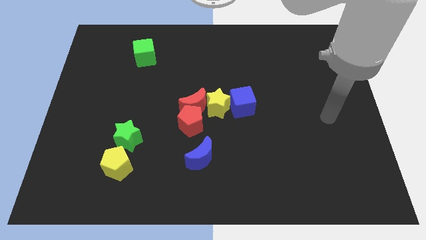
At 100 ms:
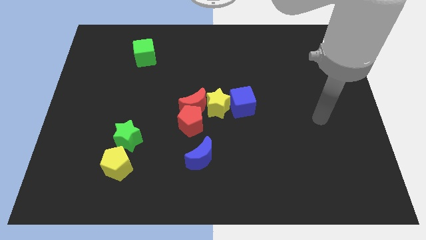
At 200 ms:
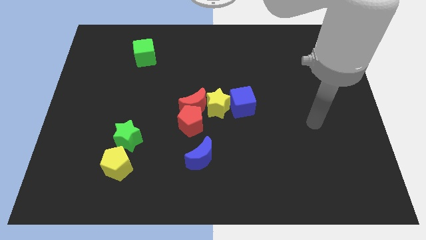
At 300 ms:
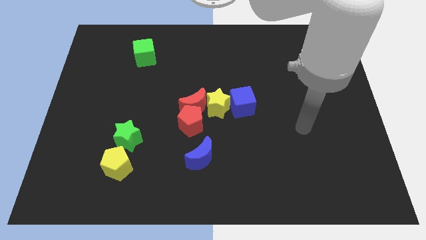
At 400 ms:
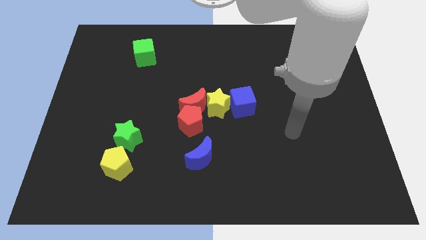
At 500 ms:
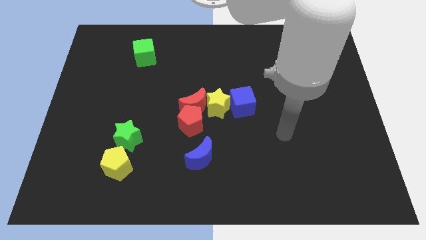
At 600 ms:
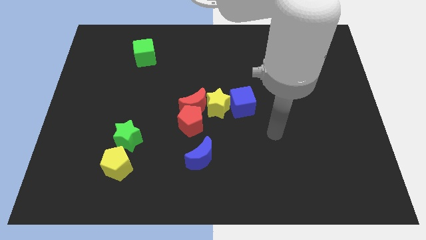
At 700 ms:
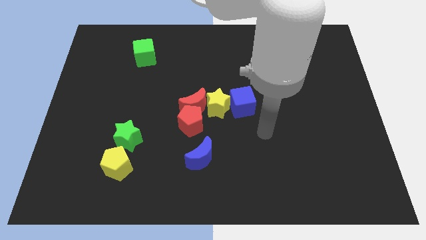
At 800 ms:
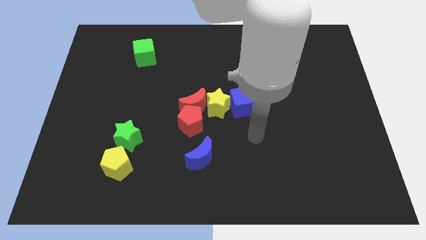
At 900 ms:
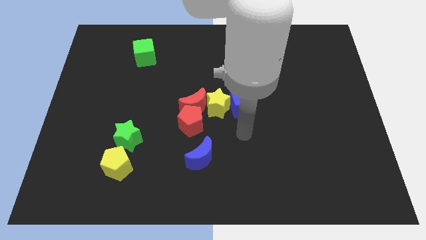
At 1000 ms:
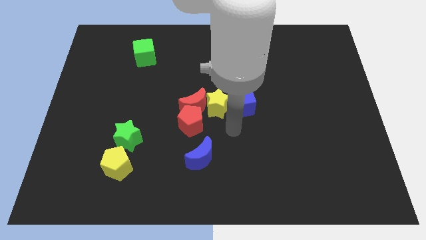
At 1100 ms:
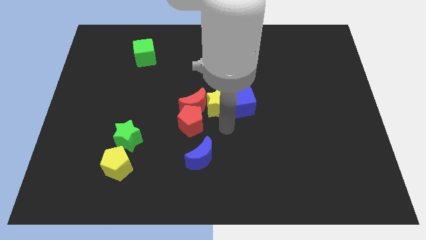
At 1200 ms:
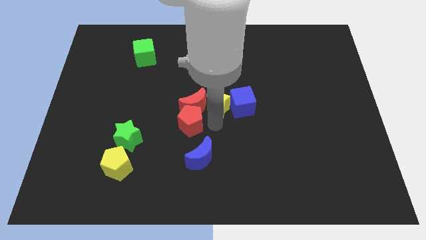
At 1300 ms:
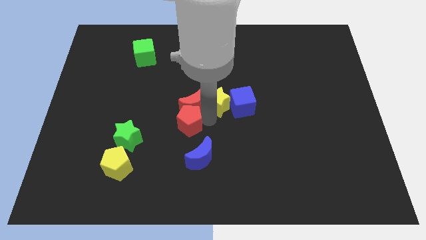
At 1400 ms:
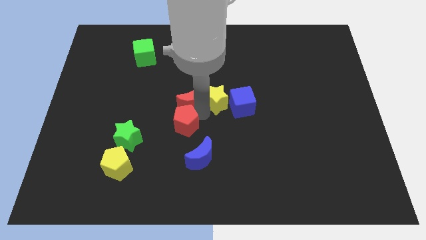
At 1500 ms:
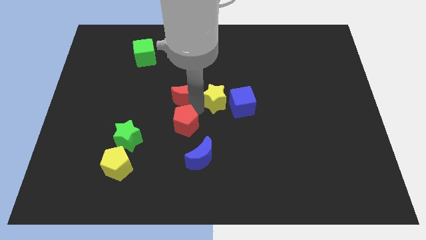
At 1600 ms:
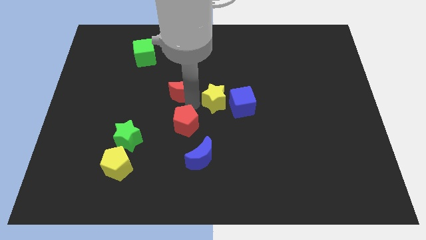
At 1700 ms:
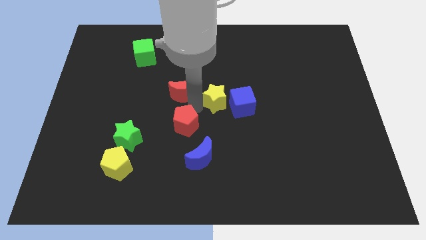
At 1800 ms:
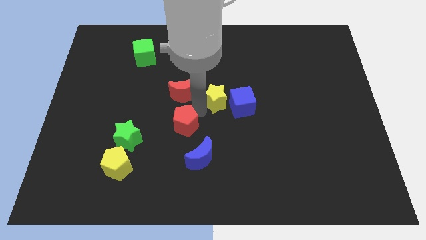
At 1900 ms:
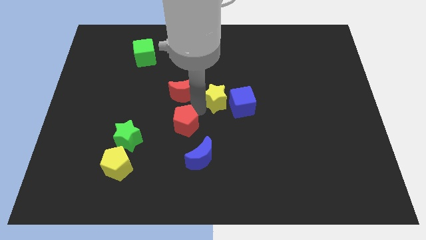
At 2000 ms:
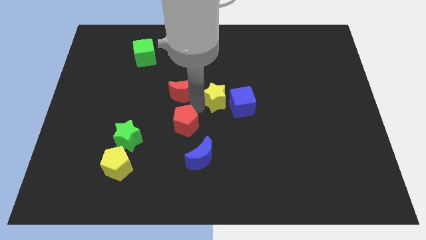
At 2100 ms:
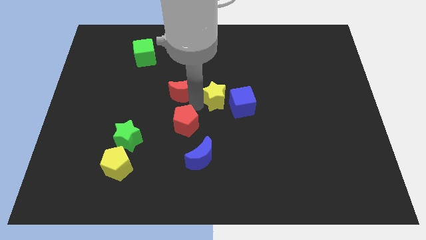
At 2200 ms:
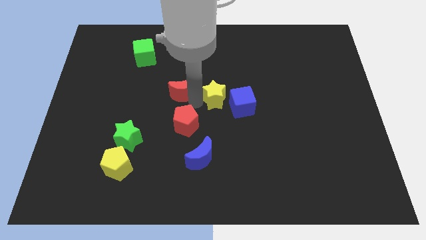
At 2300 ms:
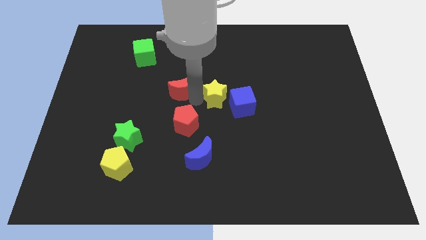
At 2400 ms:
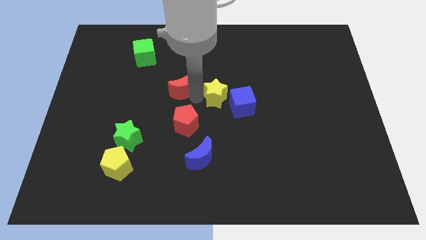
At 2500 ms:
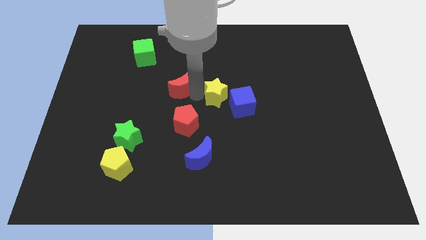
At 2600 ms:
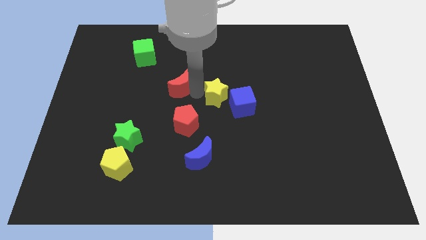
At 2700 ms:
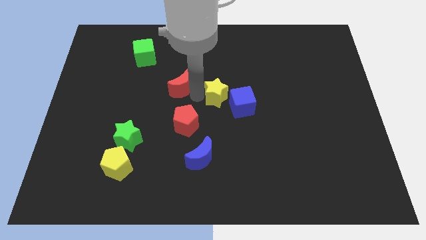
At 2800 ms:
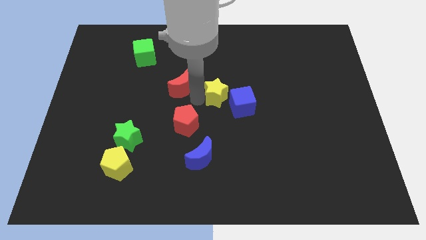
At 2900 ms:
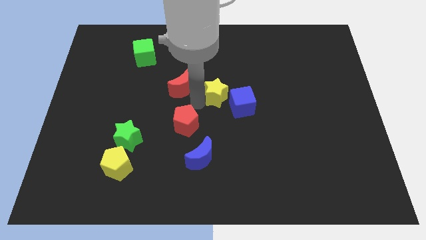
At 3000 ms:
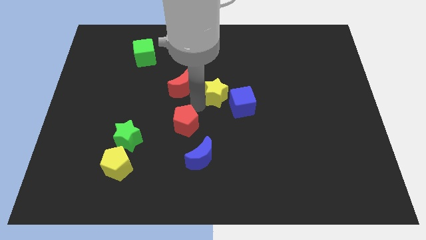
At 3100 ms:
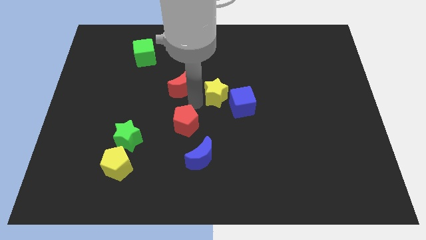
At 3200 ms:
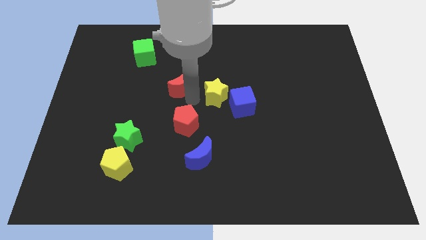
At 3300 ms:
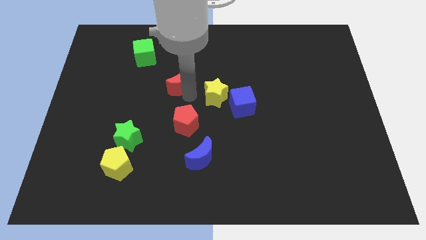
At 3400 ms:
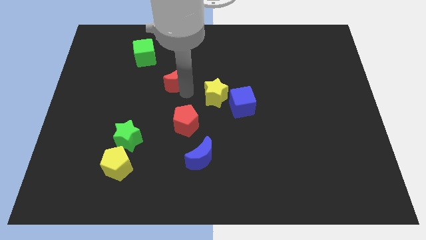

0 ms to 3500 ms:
move the red moon away from the red pentagon and yellow star

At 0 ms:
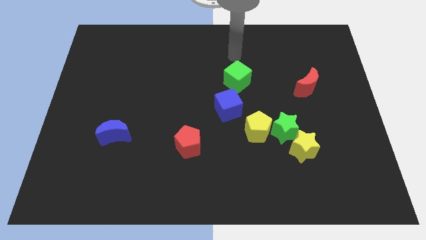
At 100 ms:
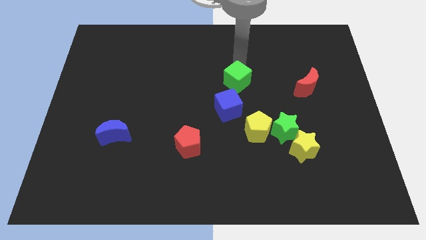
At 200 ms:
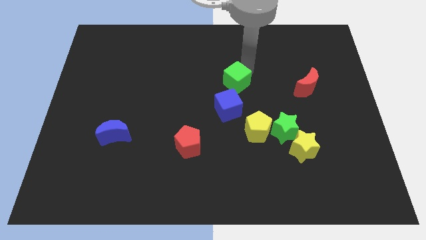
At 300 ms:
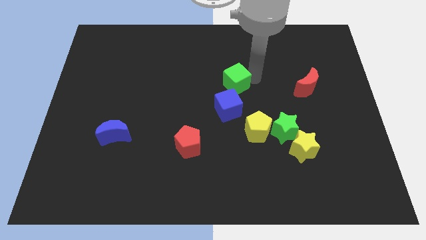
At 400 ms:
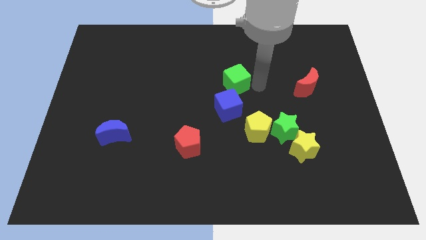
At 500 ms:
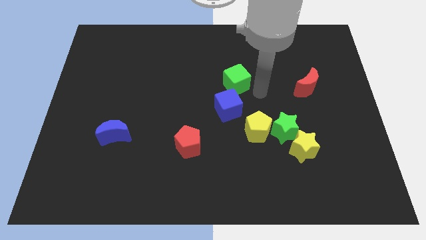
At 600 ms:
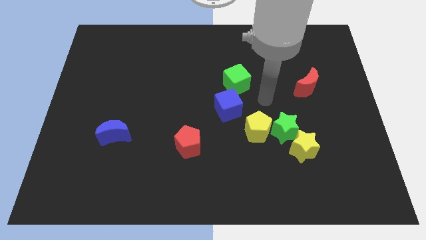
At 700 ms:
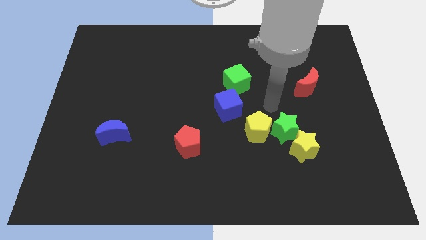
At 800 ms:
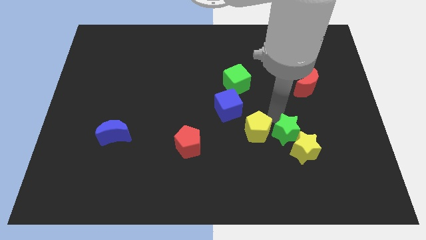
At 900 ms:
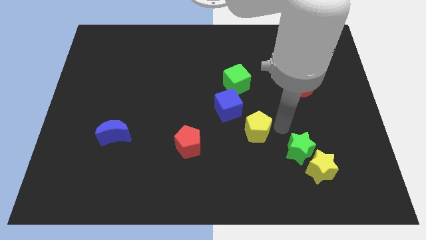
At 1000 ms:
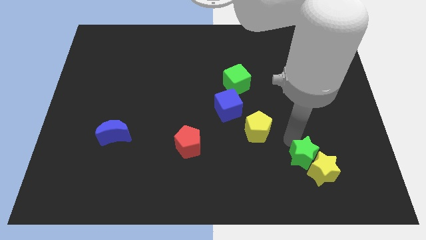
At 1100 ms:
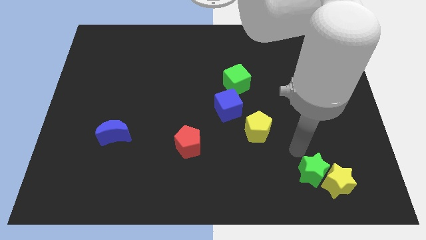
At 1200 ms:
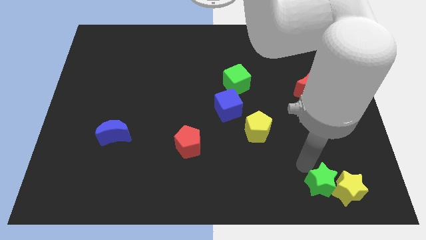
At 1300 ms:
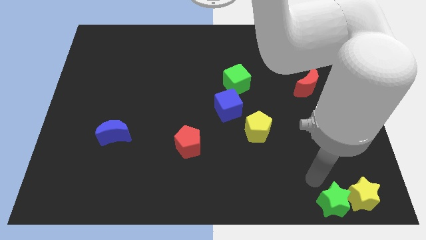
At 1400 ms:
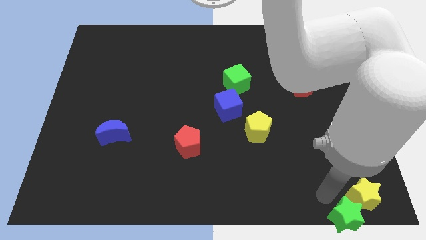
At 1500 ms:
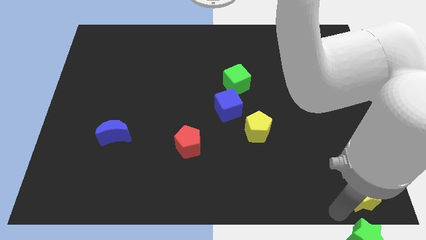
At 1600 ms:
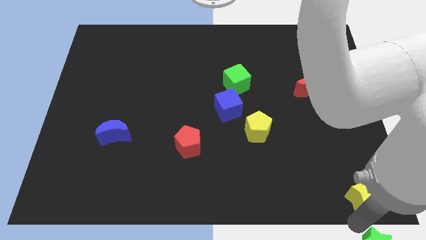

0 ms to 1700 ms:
pull the yellow star apart from the green star

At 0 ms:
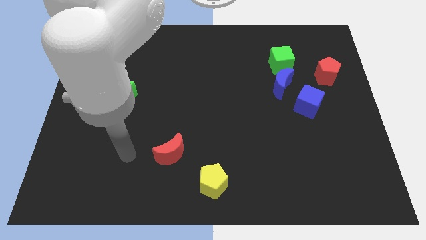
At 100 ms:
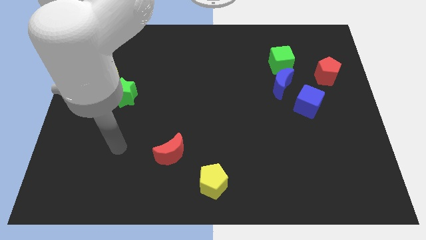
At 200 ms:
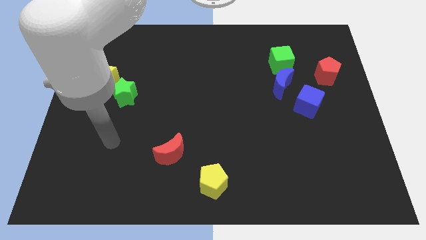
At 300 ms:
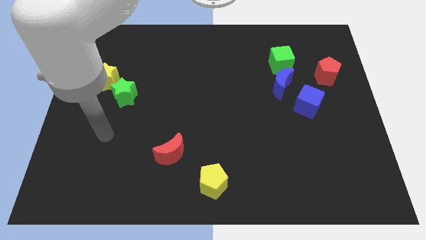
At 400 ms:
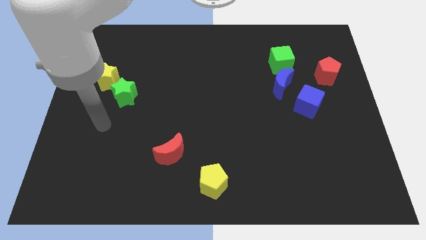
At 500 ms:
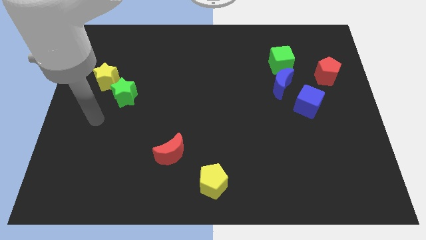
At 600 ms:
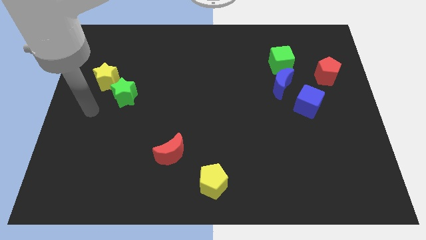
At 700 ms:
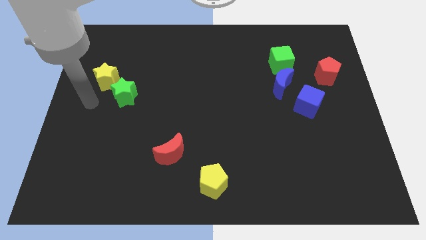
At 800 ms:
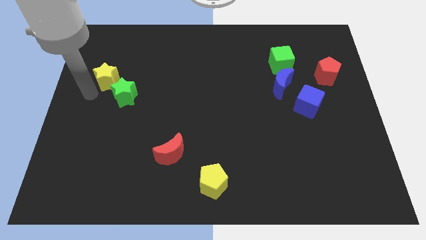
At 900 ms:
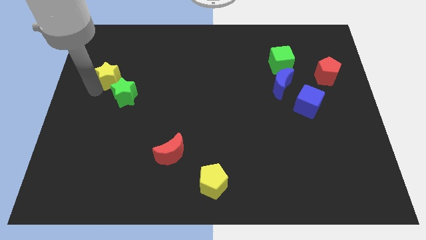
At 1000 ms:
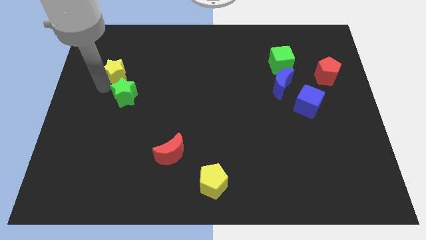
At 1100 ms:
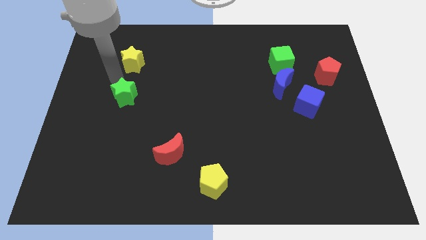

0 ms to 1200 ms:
move the green star away from the yellow star

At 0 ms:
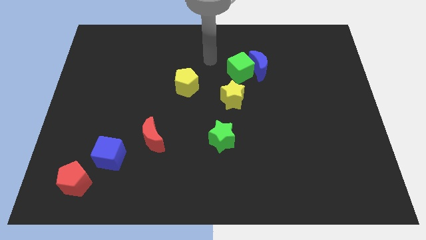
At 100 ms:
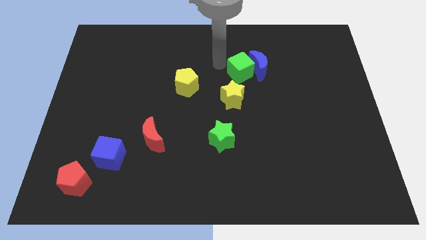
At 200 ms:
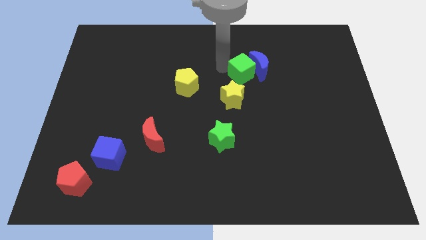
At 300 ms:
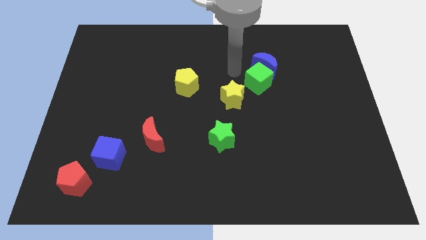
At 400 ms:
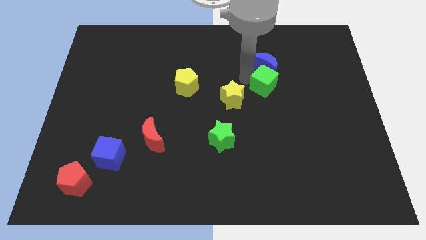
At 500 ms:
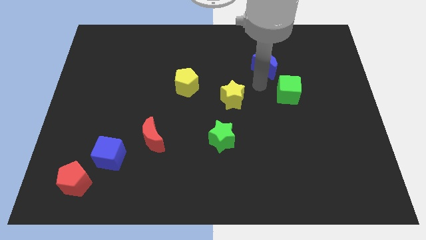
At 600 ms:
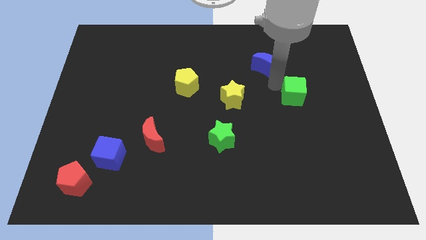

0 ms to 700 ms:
separate the blue moon from the green cube

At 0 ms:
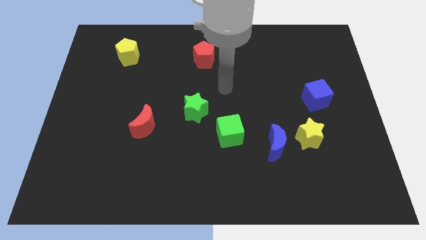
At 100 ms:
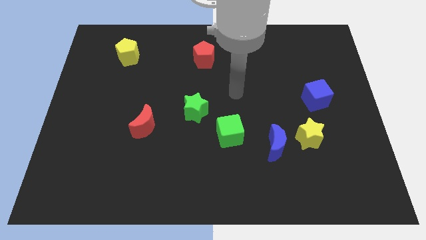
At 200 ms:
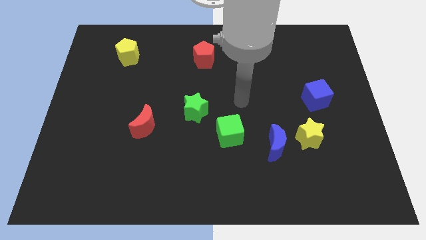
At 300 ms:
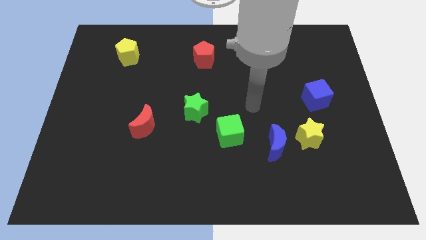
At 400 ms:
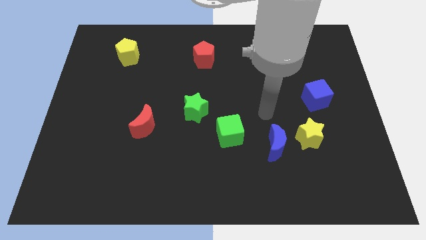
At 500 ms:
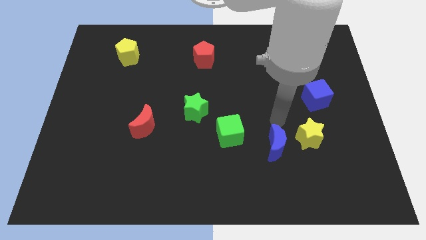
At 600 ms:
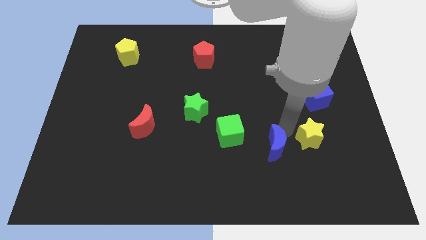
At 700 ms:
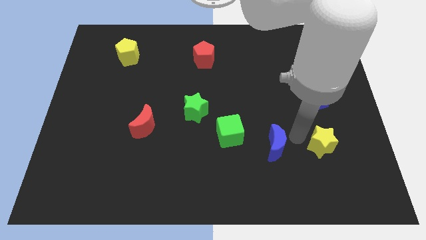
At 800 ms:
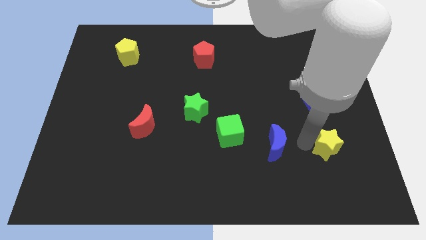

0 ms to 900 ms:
pull the blue moon apart from the yellow star

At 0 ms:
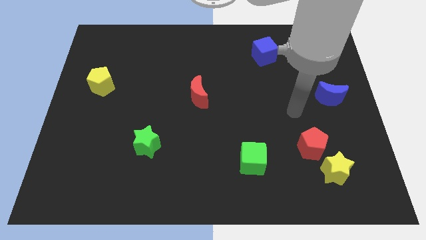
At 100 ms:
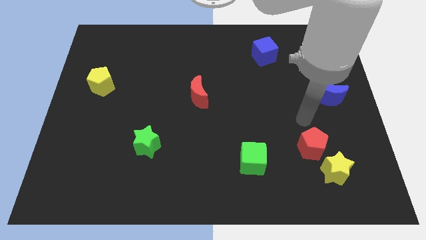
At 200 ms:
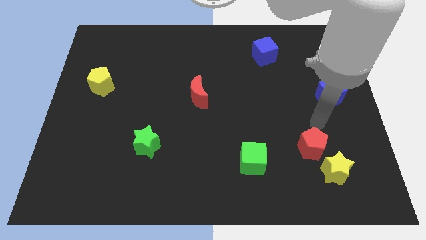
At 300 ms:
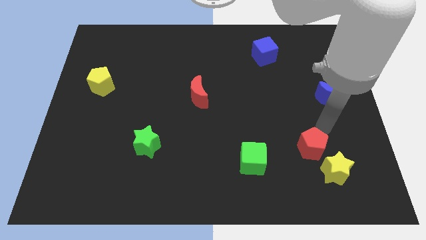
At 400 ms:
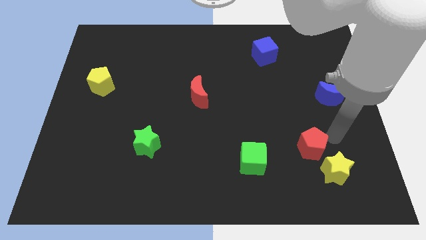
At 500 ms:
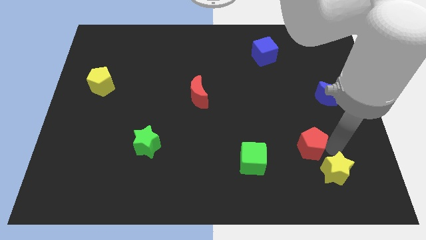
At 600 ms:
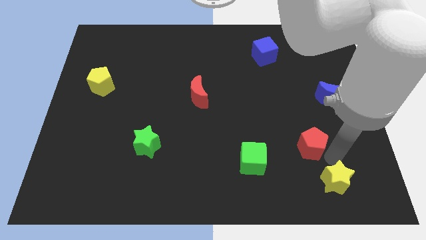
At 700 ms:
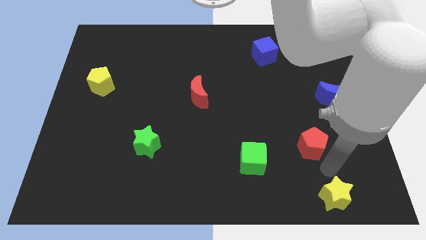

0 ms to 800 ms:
pull the red pentagon apart from the yellow star

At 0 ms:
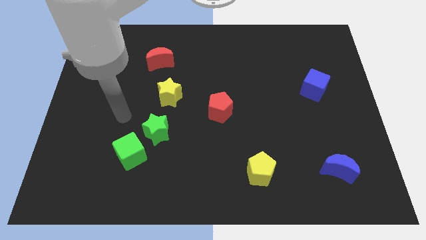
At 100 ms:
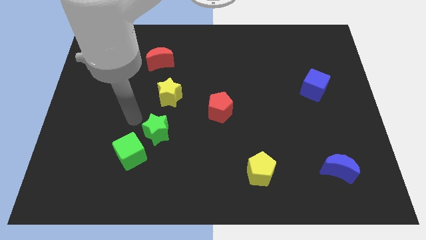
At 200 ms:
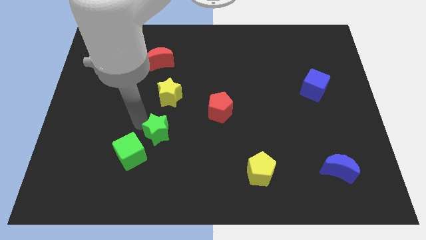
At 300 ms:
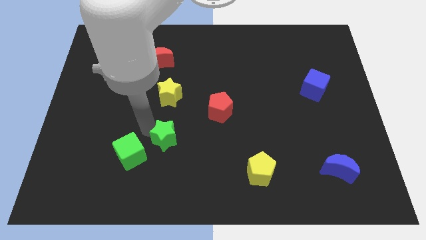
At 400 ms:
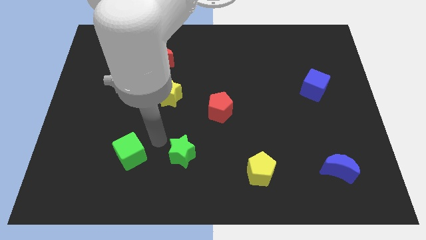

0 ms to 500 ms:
move the green cube away from the green star
